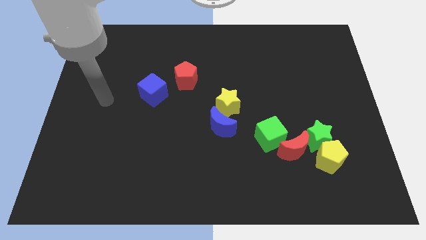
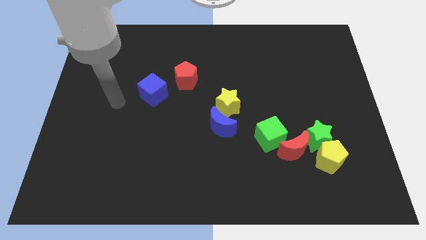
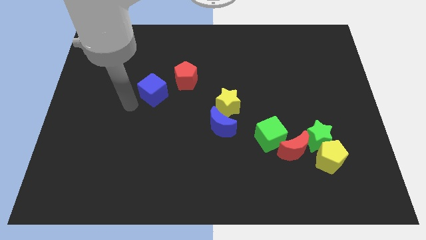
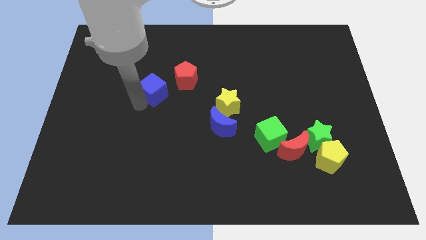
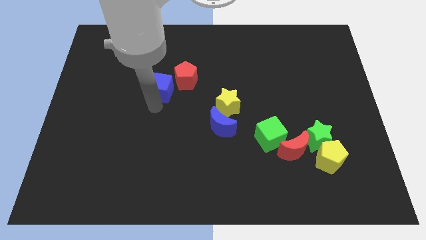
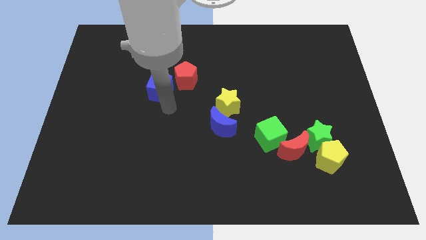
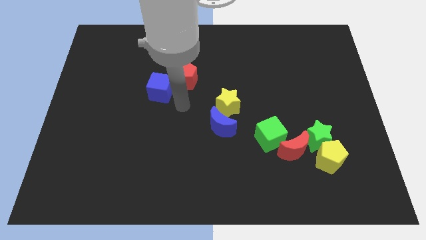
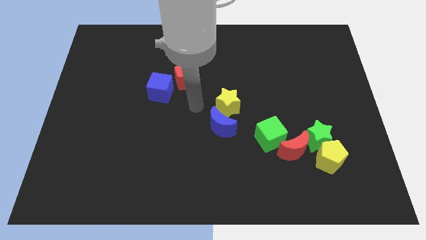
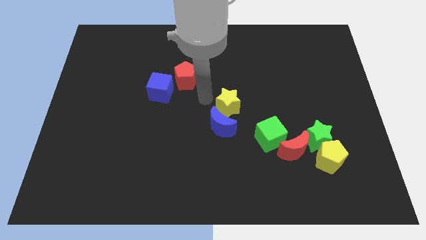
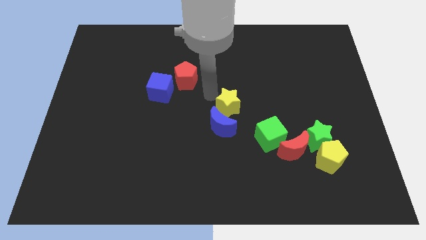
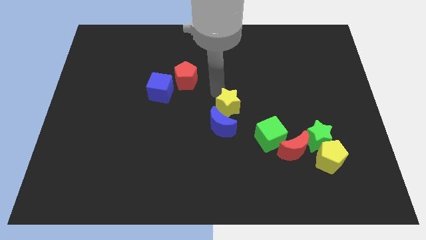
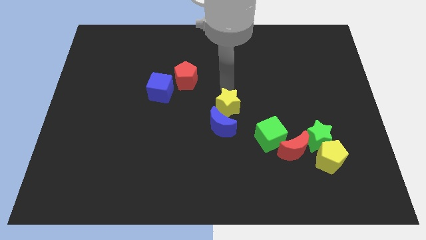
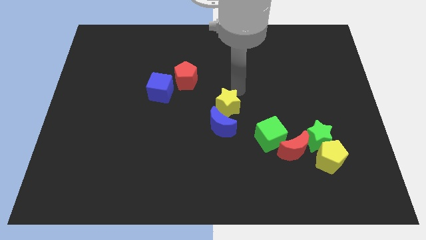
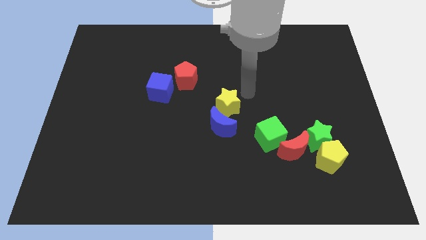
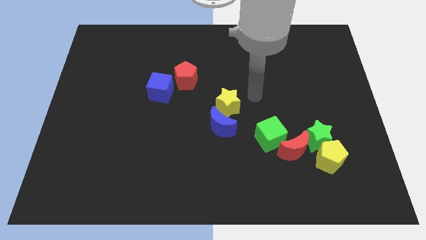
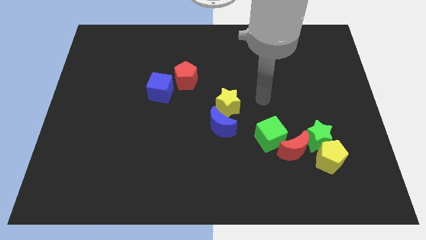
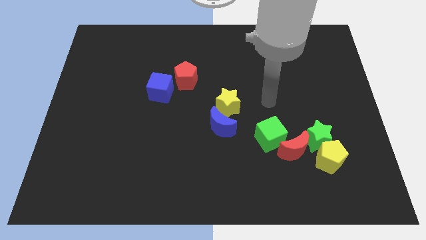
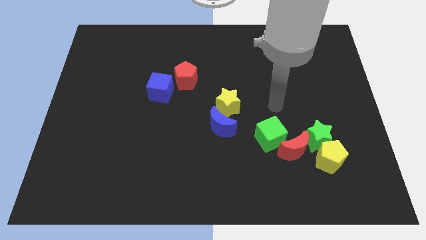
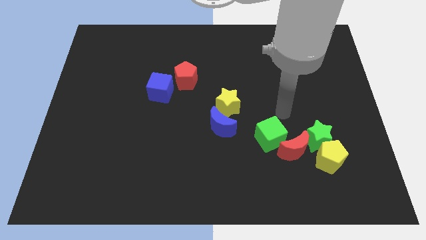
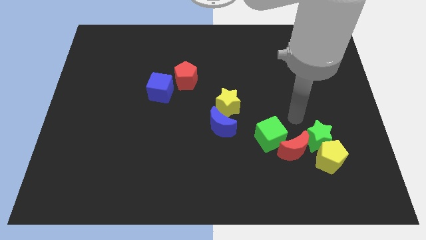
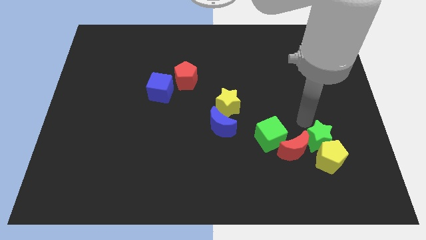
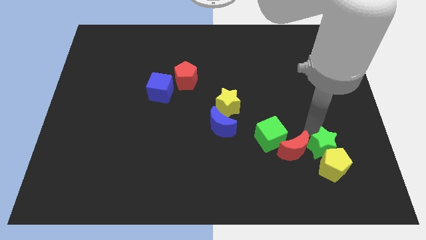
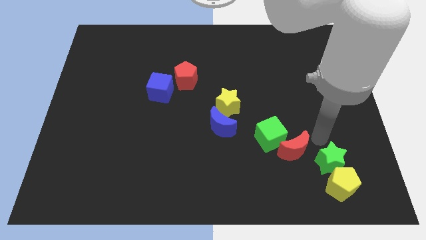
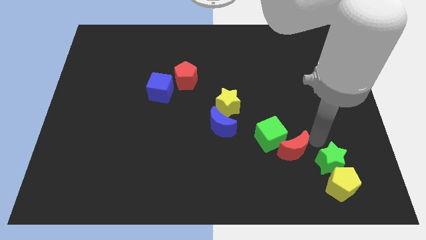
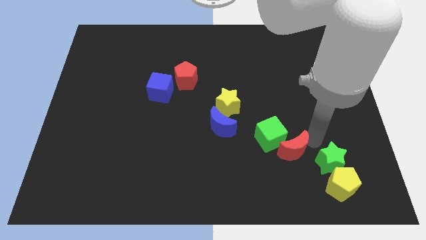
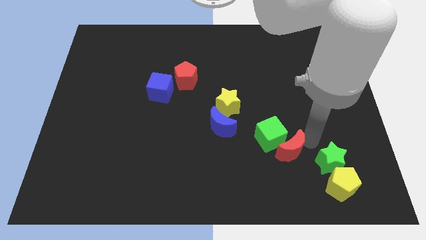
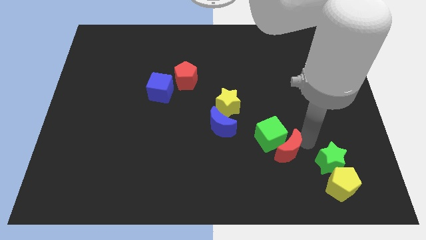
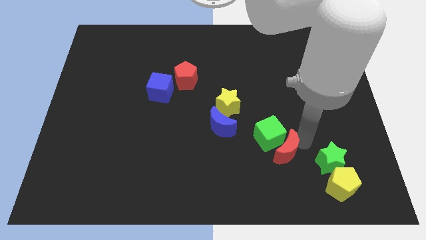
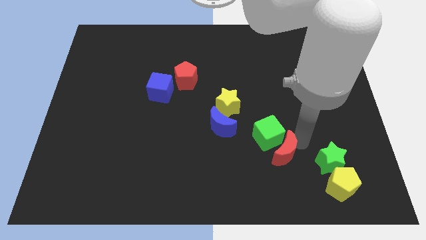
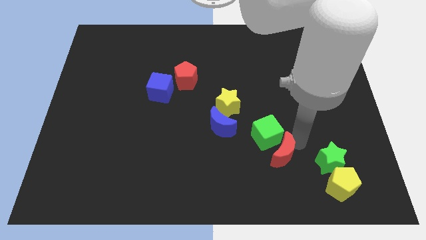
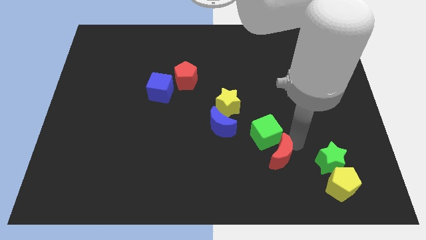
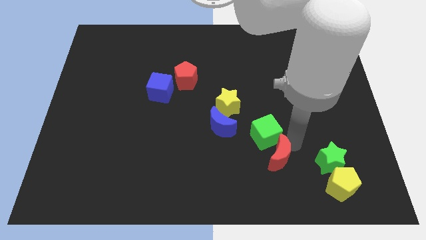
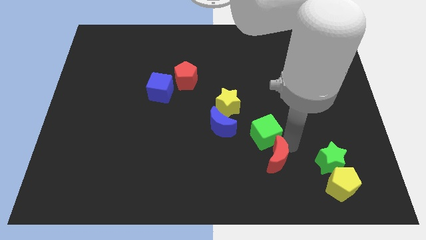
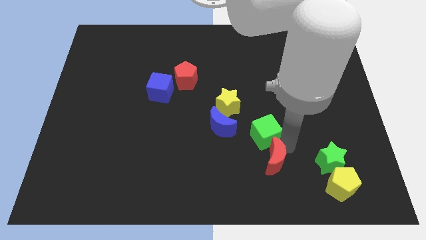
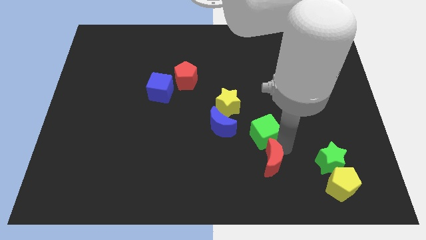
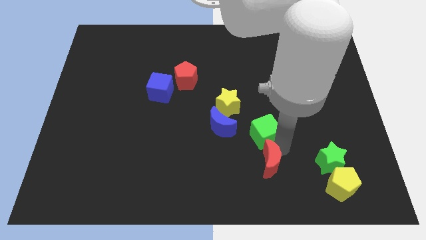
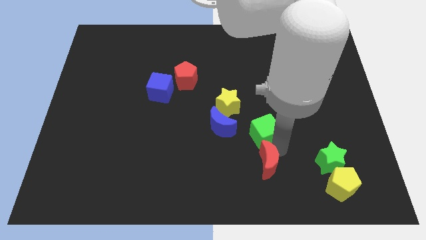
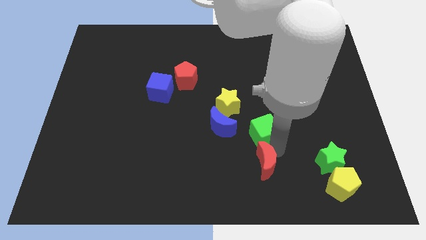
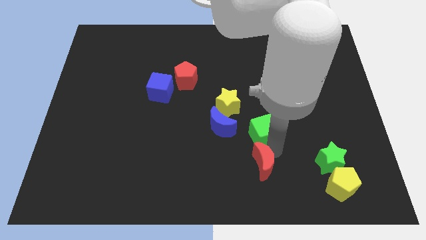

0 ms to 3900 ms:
pull the red moon apart from the group

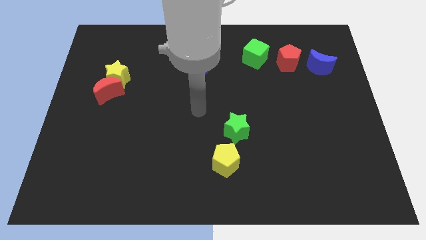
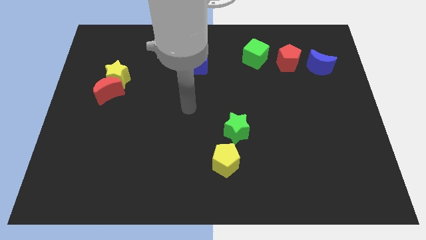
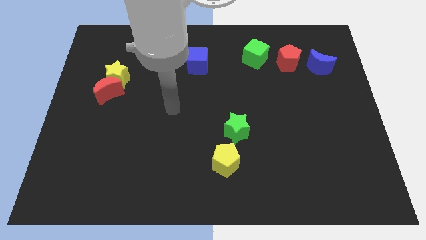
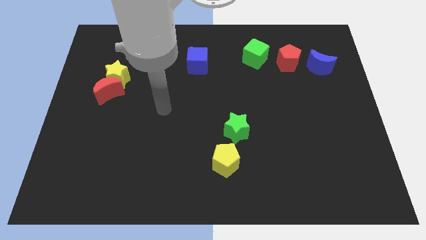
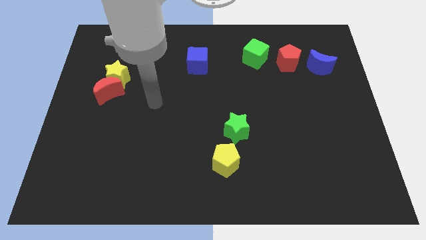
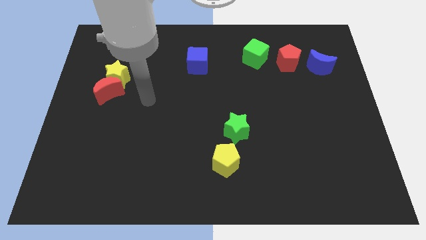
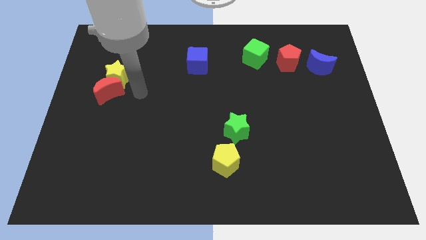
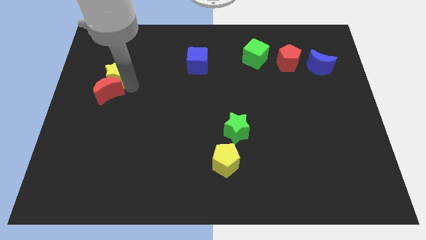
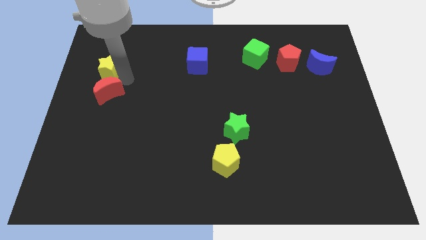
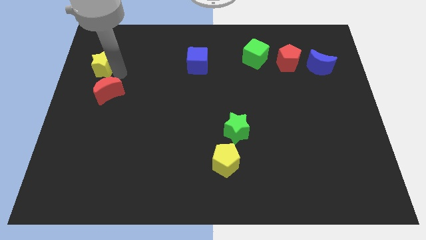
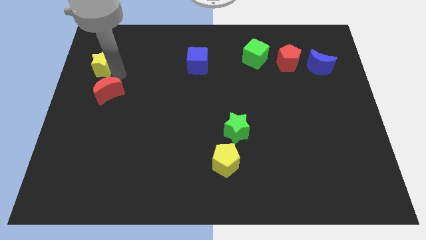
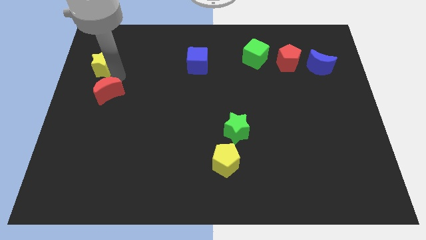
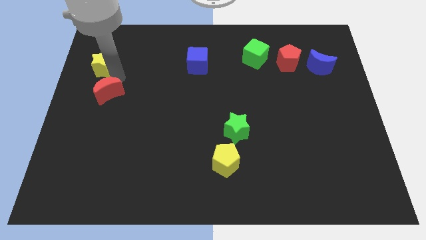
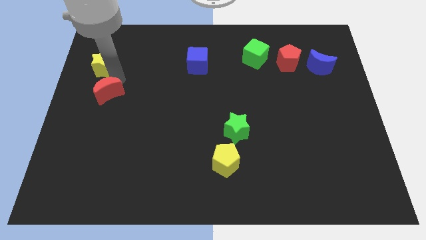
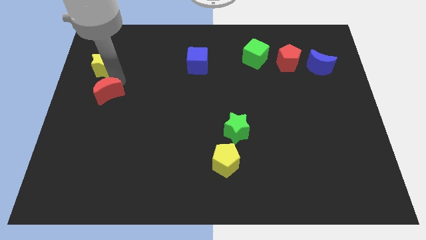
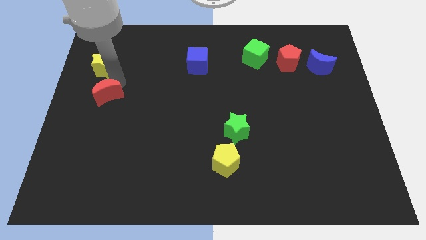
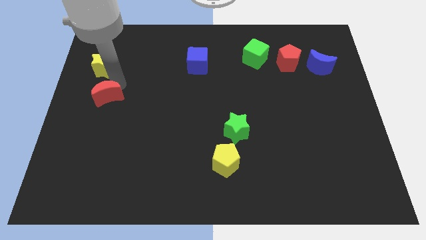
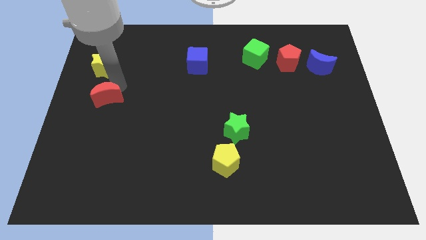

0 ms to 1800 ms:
pull the red moon apart from the yellow star

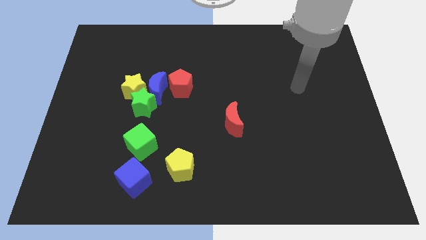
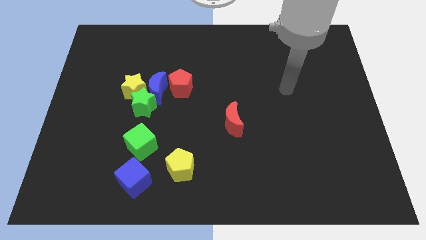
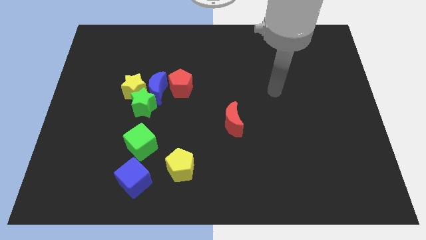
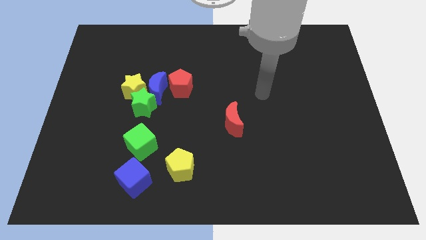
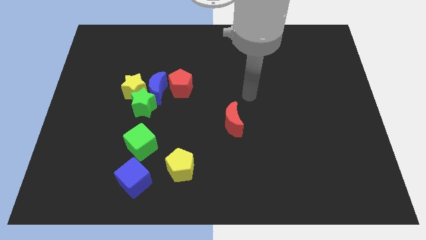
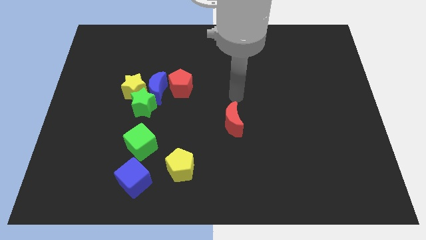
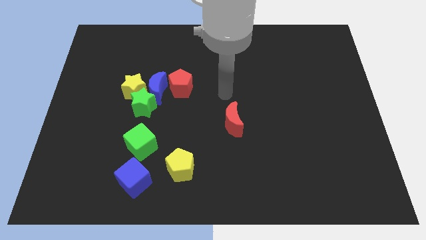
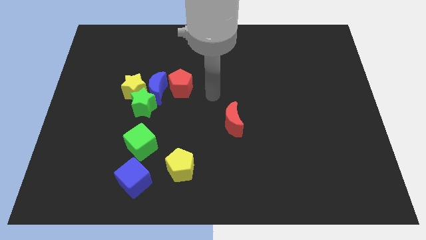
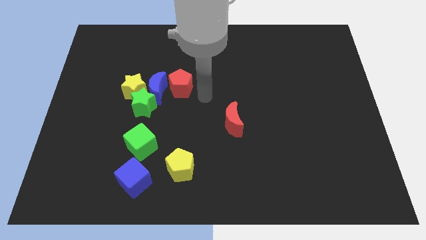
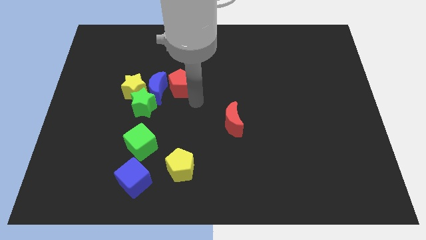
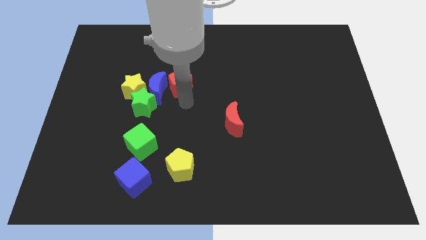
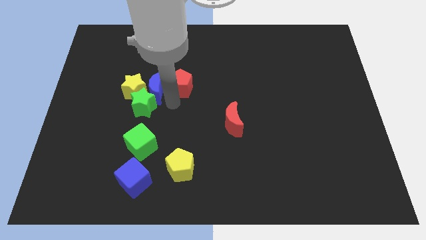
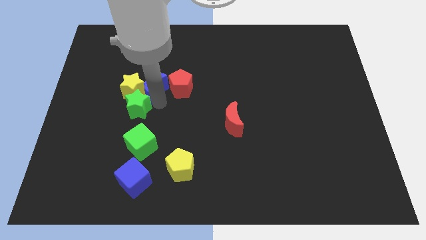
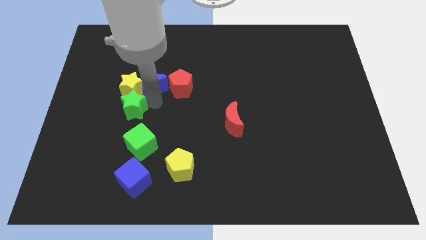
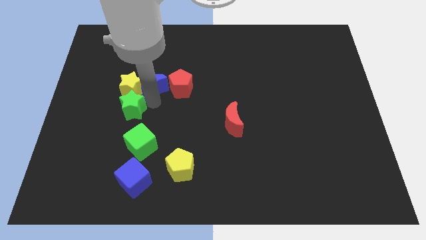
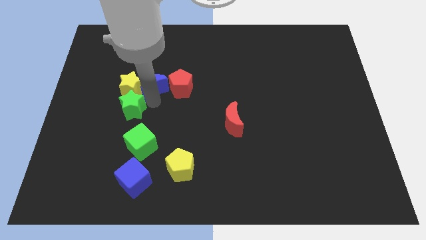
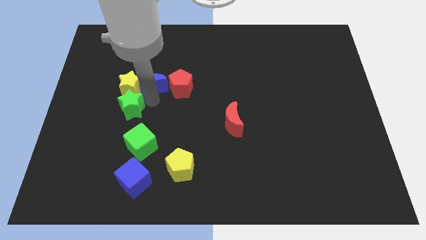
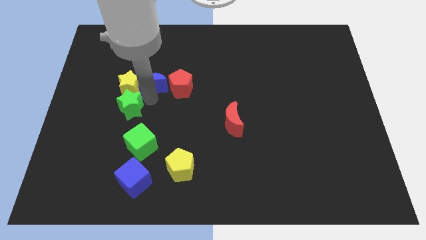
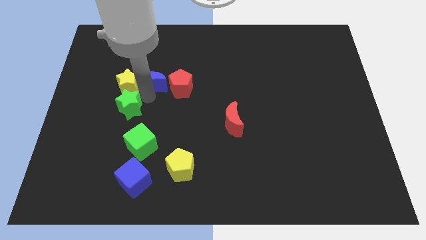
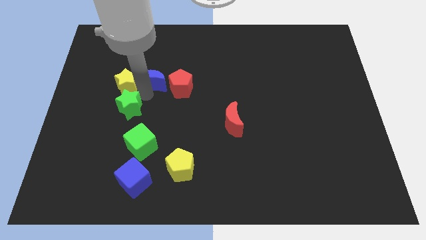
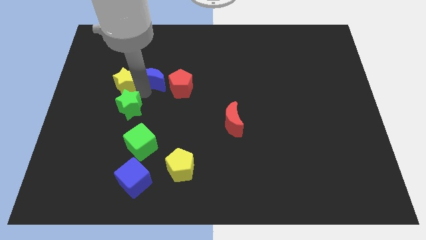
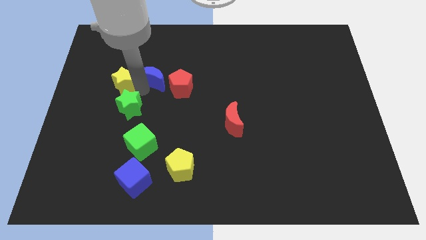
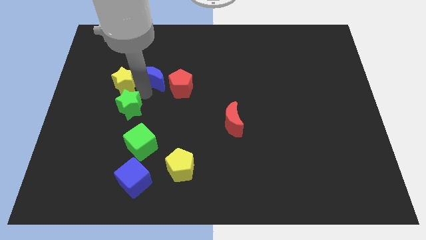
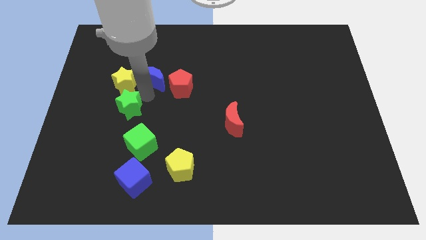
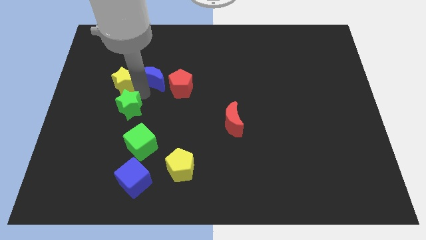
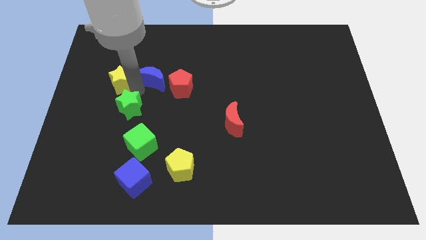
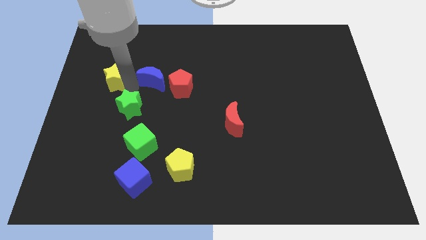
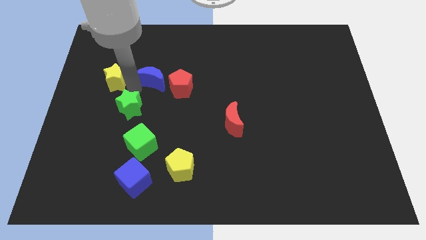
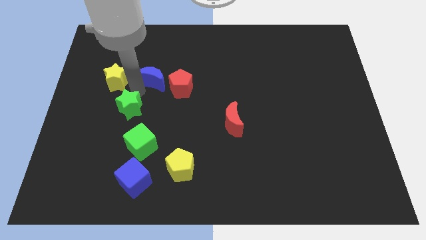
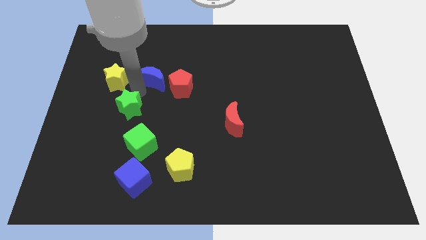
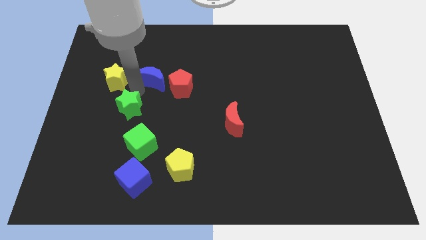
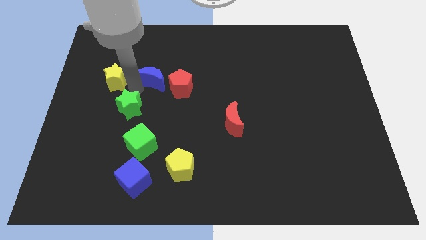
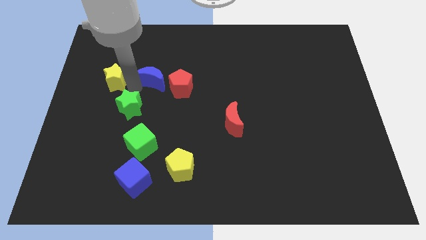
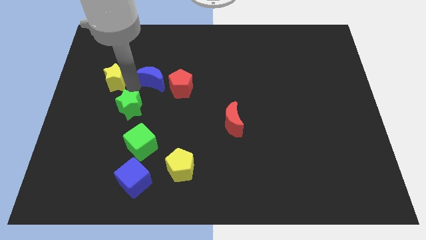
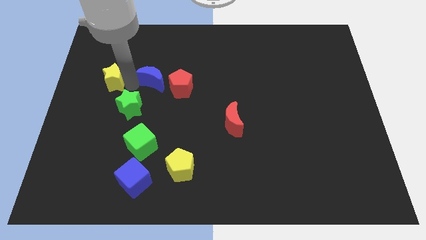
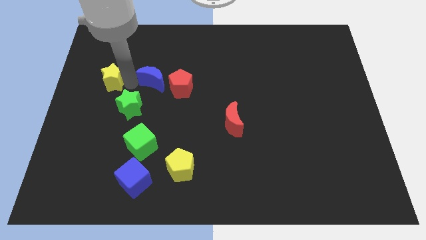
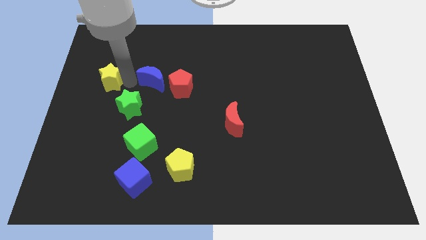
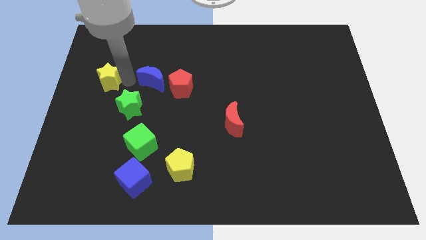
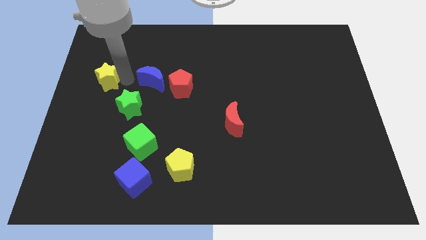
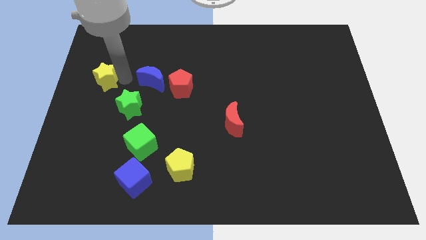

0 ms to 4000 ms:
separate the yellow star from the blue moon and green star
